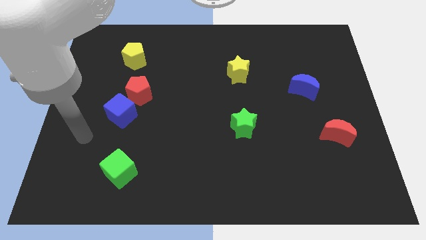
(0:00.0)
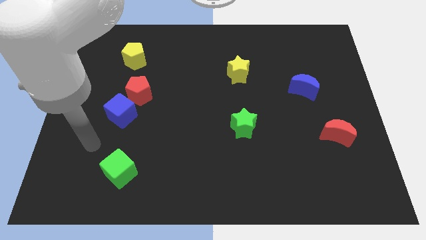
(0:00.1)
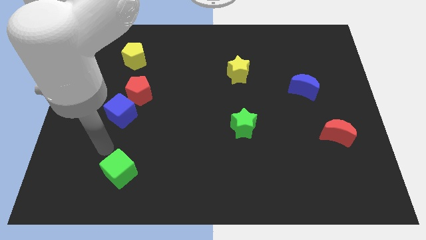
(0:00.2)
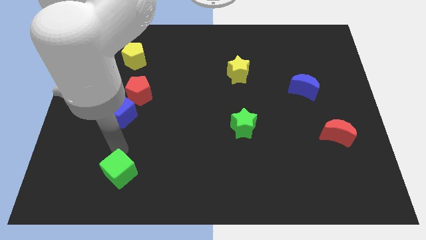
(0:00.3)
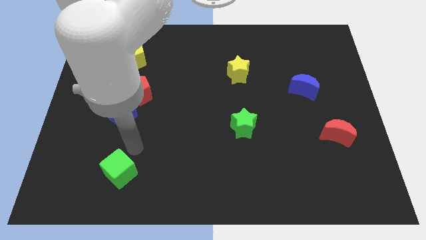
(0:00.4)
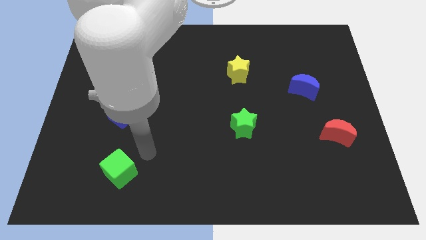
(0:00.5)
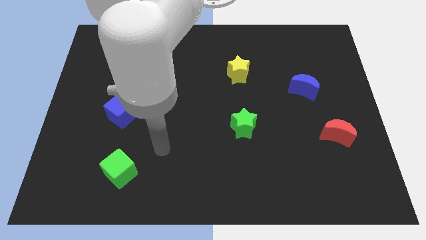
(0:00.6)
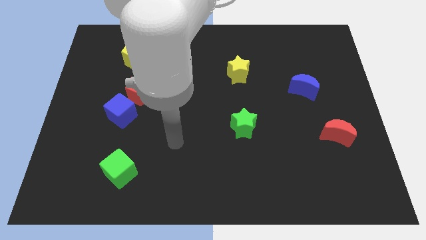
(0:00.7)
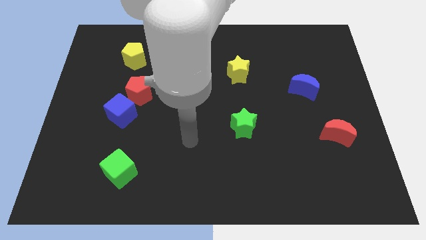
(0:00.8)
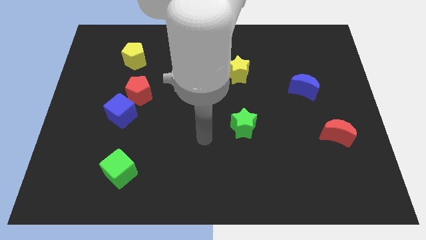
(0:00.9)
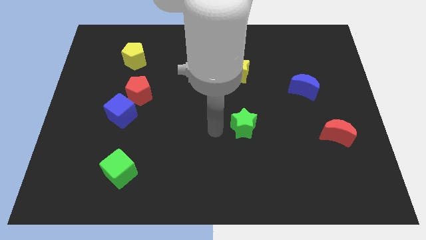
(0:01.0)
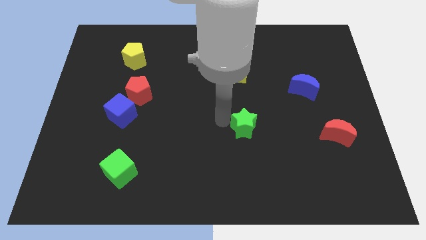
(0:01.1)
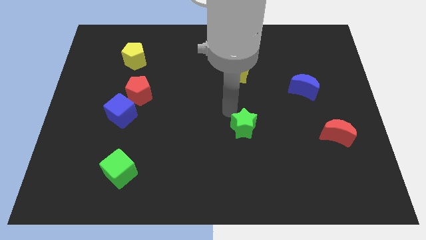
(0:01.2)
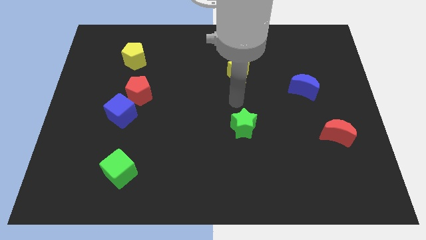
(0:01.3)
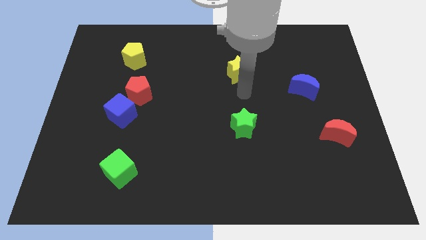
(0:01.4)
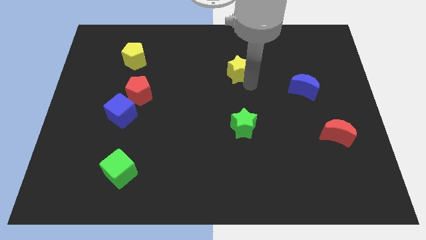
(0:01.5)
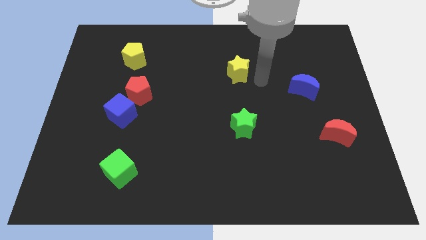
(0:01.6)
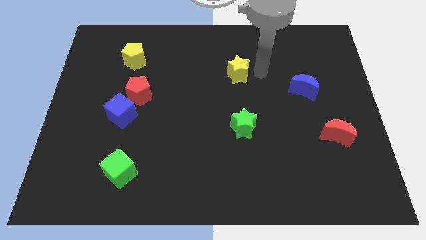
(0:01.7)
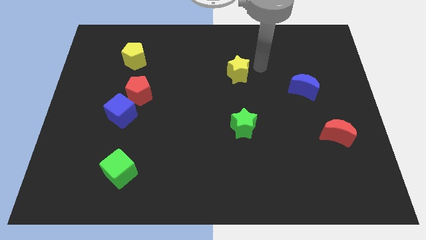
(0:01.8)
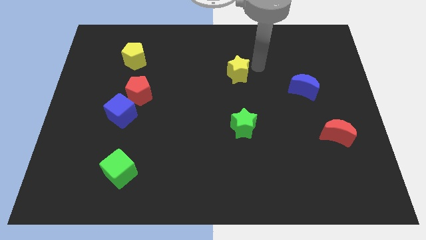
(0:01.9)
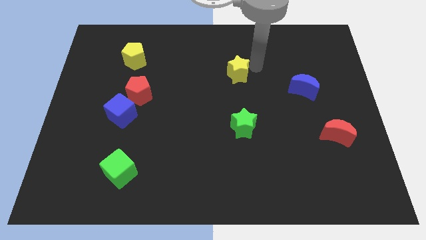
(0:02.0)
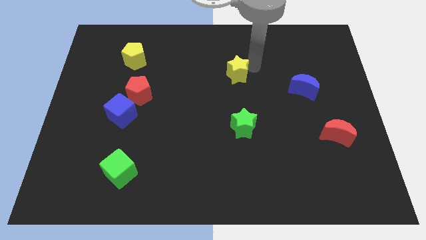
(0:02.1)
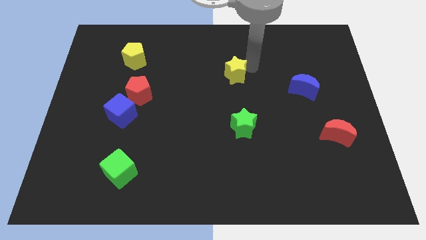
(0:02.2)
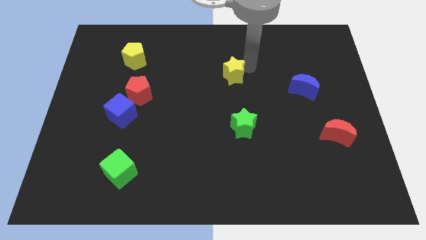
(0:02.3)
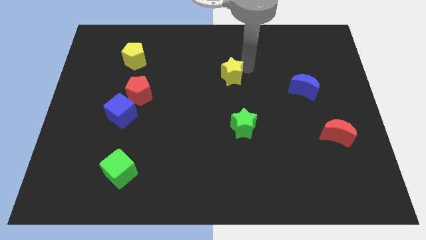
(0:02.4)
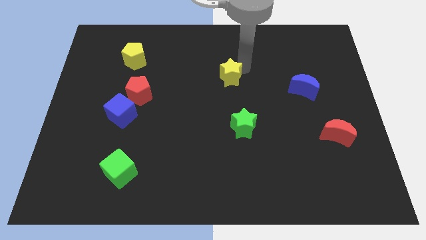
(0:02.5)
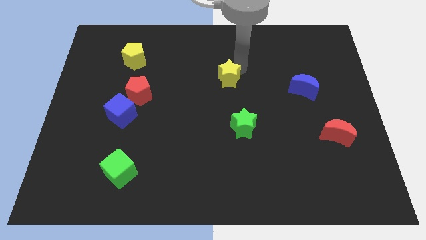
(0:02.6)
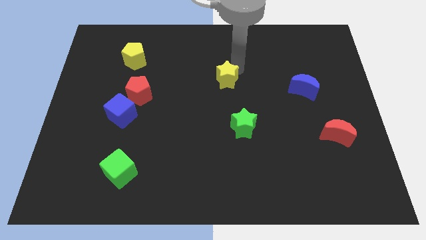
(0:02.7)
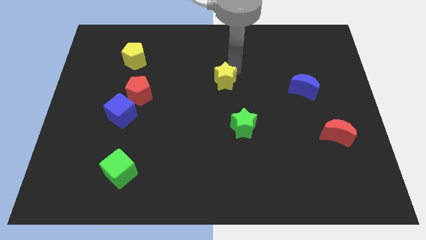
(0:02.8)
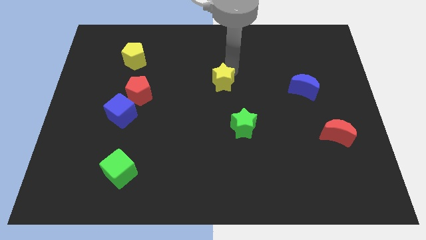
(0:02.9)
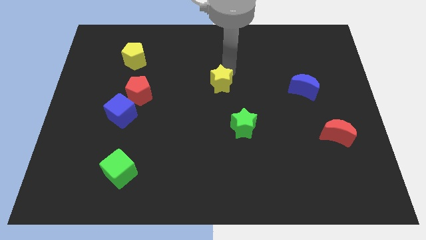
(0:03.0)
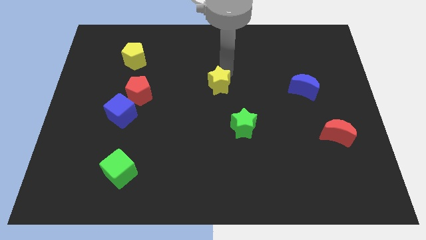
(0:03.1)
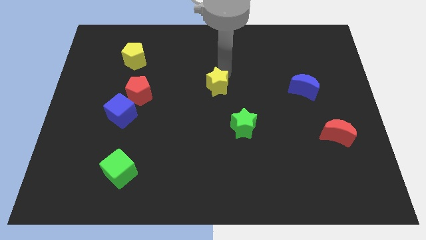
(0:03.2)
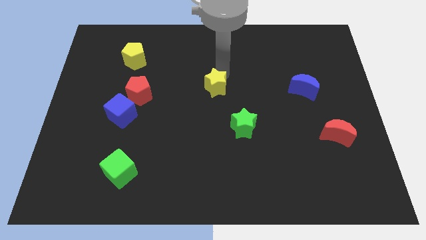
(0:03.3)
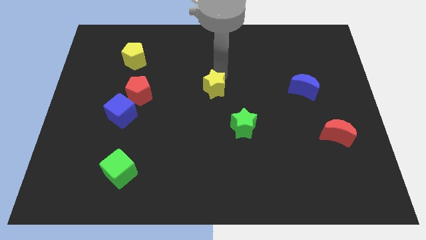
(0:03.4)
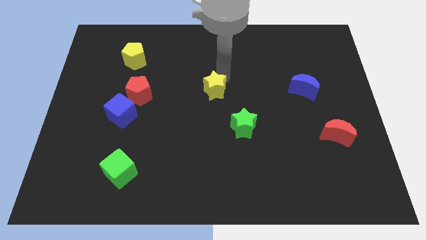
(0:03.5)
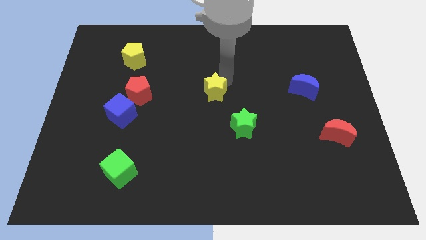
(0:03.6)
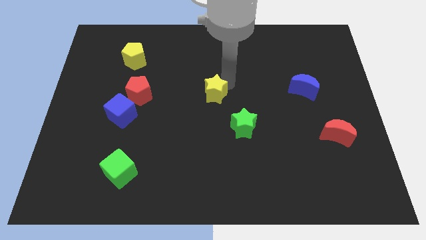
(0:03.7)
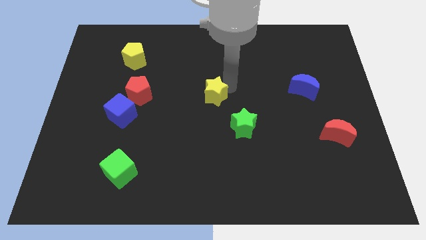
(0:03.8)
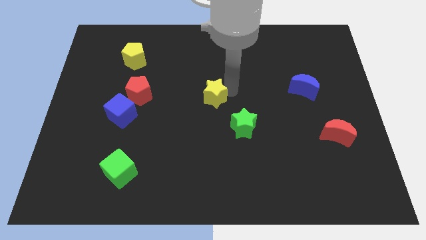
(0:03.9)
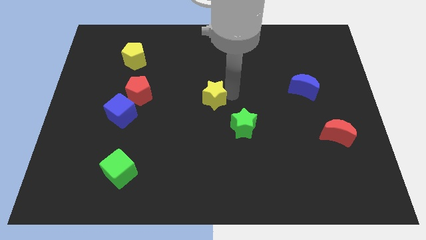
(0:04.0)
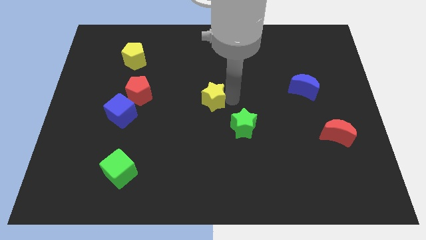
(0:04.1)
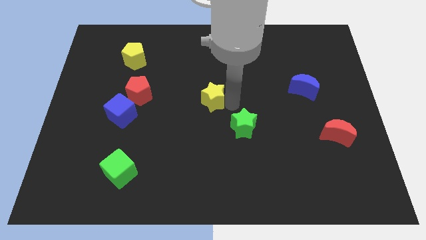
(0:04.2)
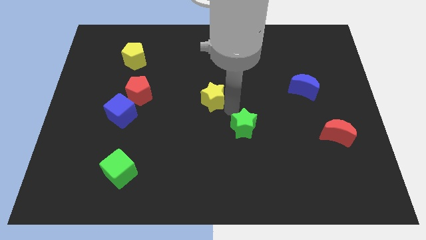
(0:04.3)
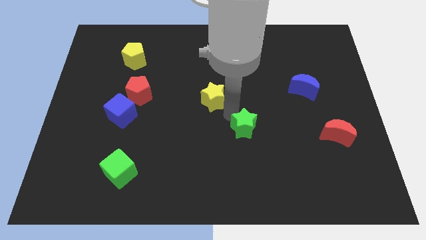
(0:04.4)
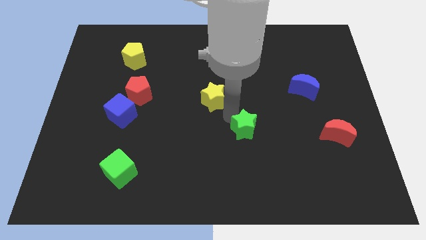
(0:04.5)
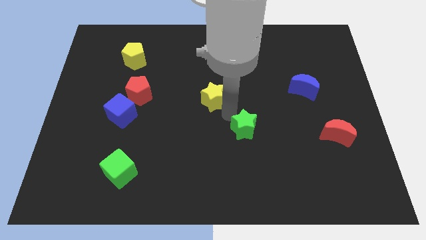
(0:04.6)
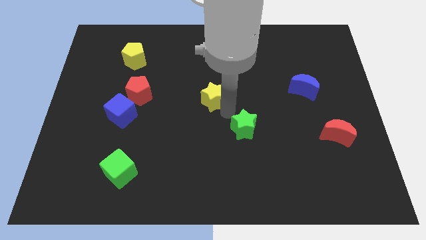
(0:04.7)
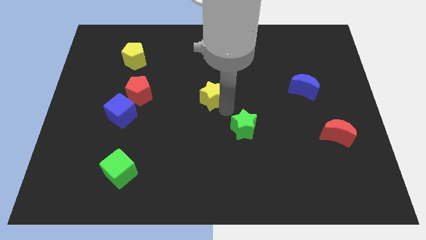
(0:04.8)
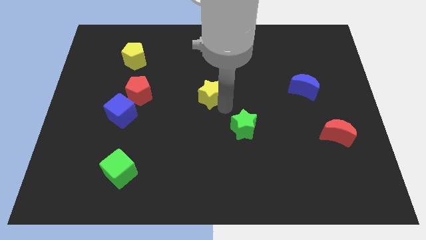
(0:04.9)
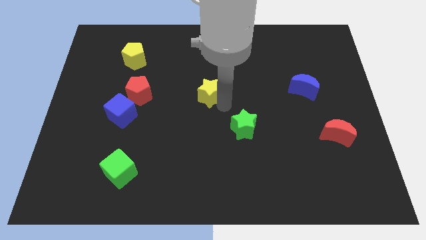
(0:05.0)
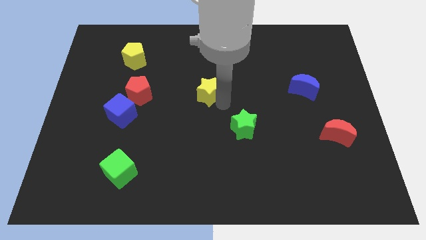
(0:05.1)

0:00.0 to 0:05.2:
push the yellow star to the right side of the red pentagon

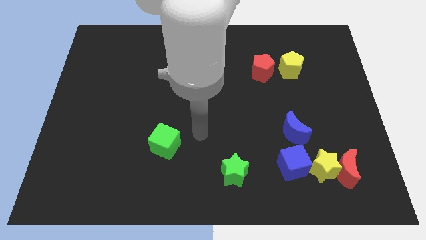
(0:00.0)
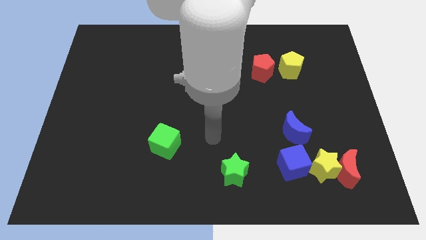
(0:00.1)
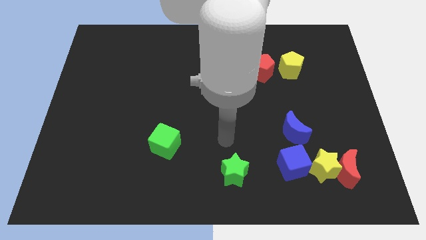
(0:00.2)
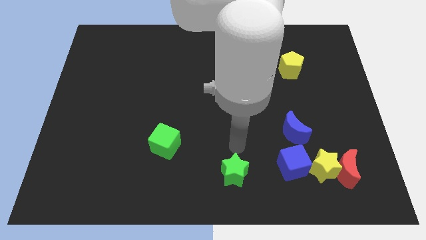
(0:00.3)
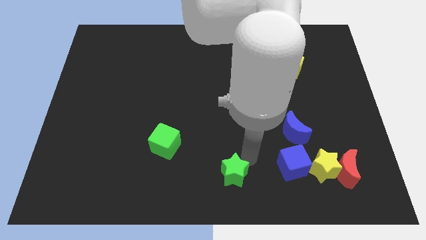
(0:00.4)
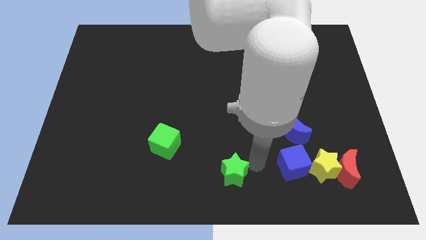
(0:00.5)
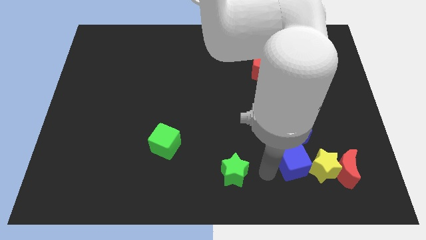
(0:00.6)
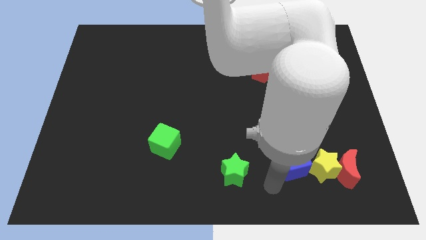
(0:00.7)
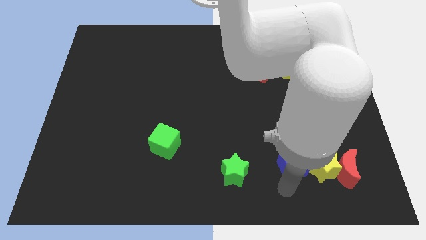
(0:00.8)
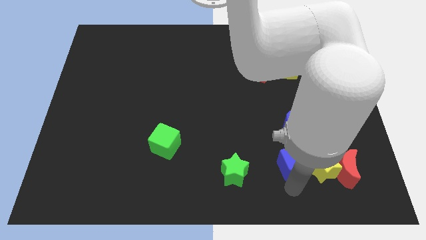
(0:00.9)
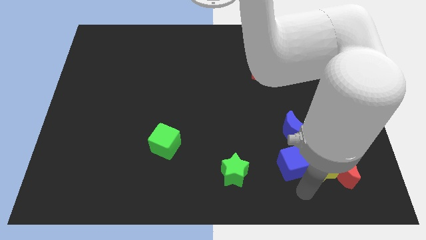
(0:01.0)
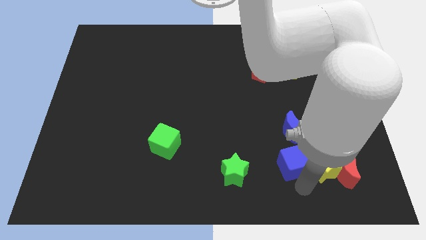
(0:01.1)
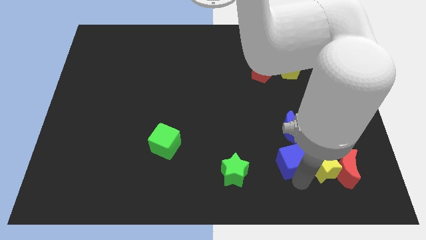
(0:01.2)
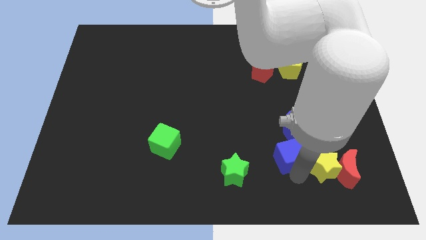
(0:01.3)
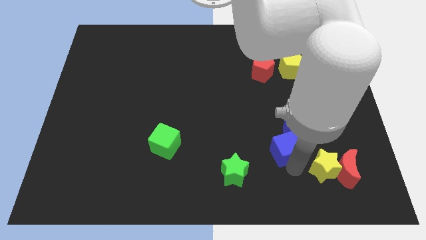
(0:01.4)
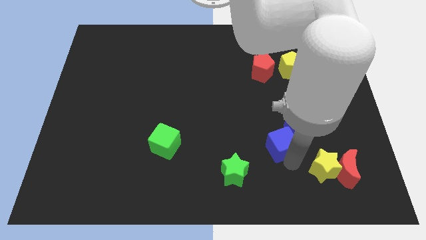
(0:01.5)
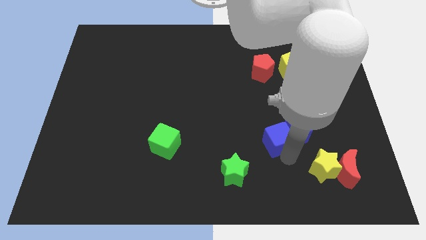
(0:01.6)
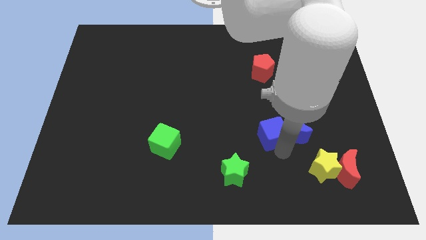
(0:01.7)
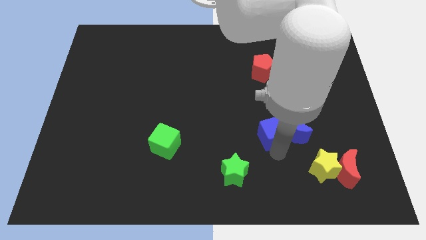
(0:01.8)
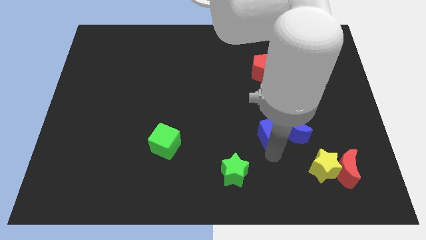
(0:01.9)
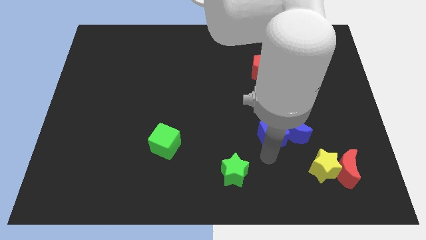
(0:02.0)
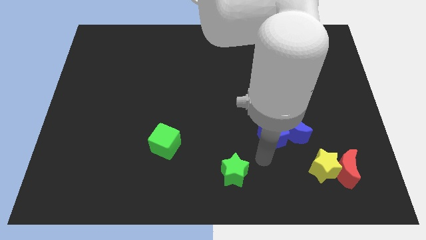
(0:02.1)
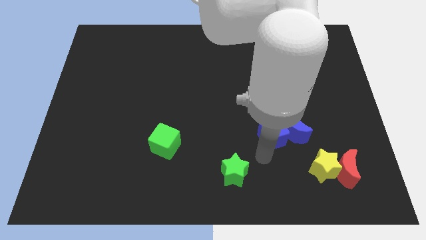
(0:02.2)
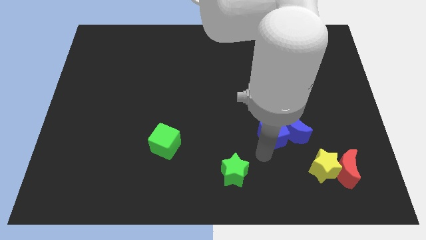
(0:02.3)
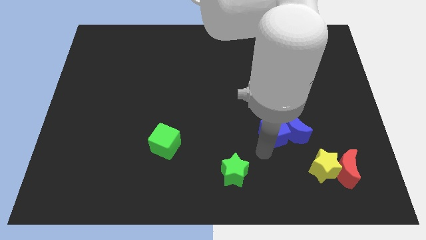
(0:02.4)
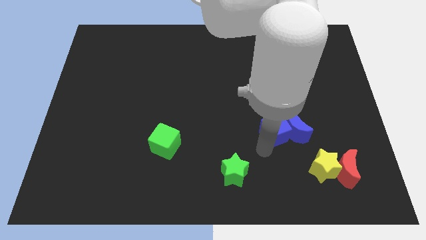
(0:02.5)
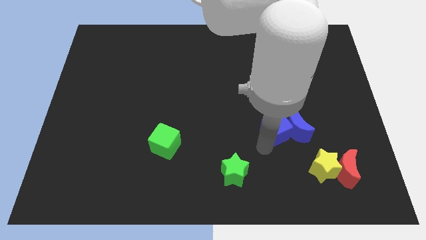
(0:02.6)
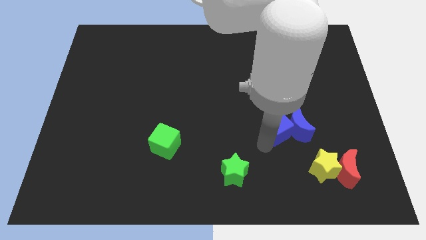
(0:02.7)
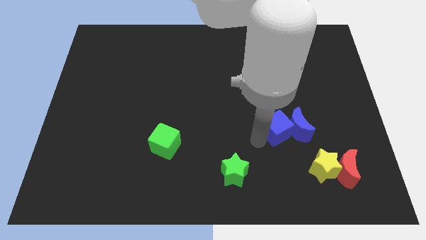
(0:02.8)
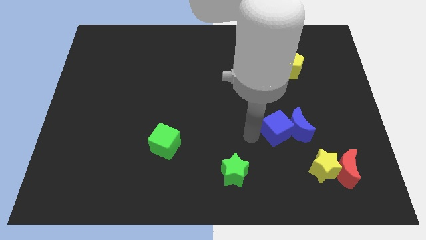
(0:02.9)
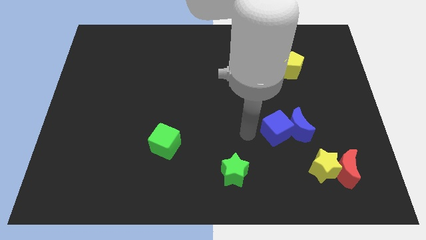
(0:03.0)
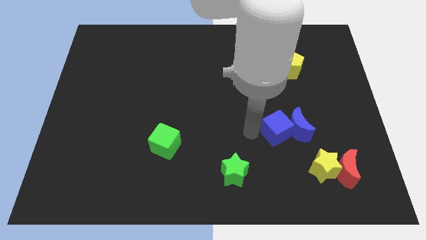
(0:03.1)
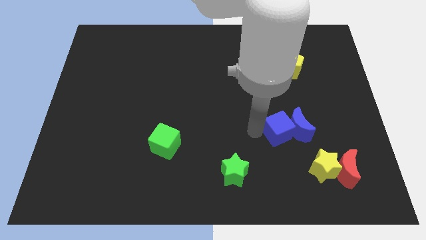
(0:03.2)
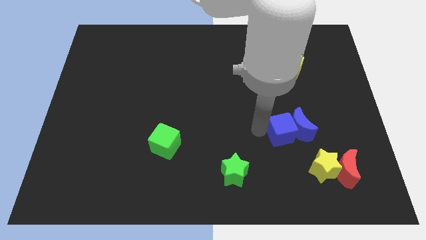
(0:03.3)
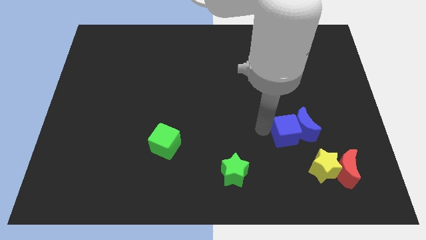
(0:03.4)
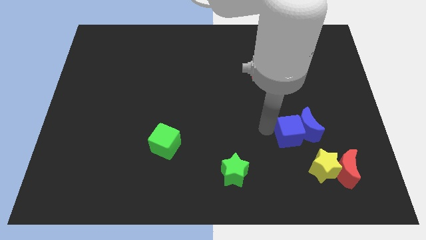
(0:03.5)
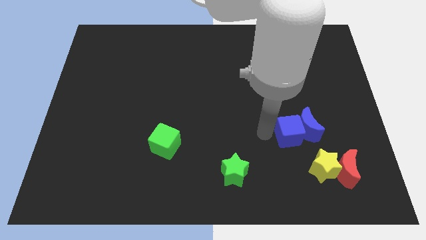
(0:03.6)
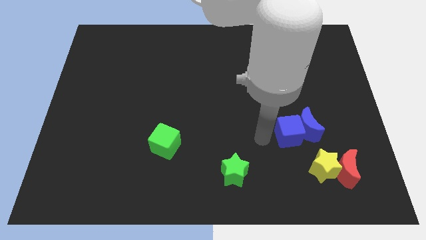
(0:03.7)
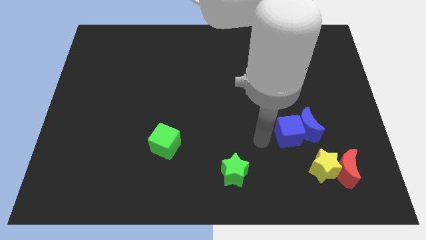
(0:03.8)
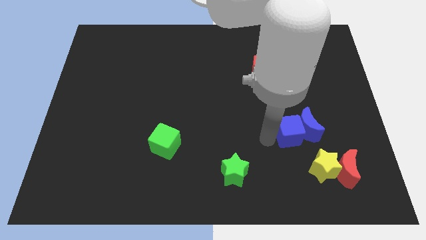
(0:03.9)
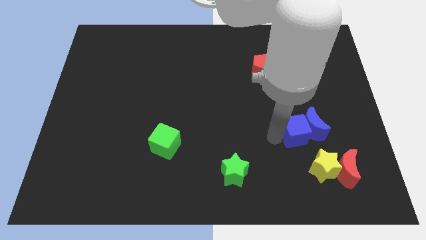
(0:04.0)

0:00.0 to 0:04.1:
push the blue cube above the yellow star
